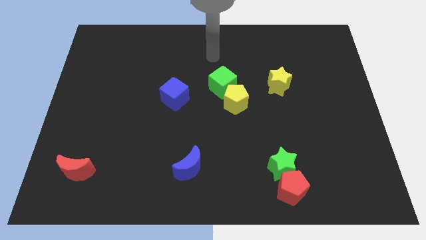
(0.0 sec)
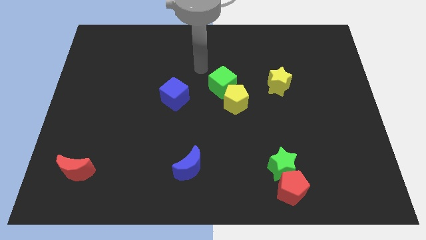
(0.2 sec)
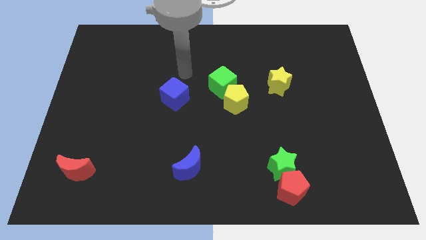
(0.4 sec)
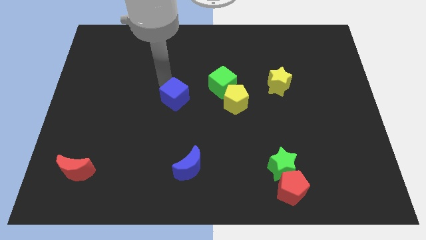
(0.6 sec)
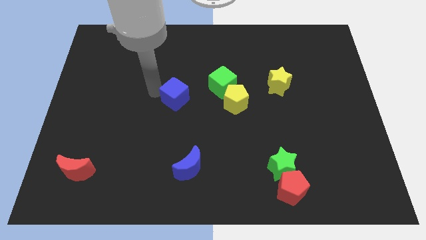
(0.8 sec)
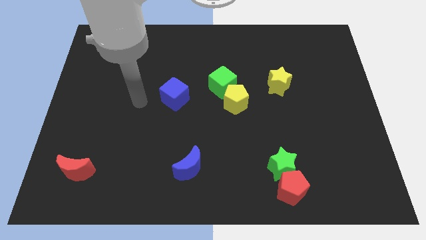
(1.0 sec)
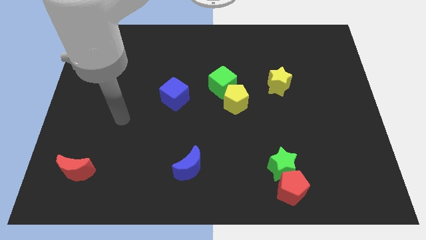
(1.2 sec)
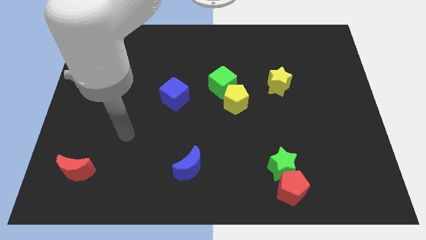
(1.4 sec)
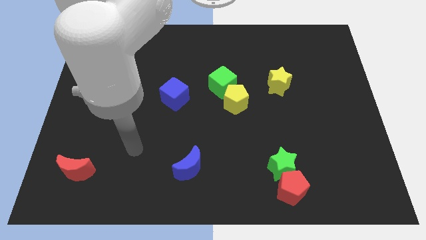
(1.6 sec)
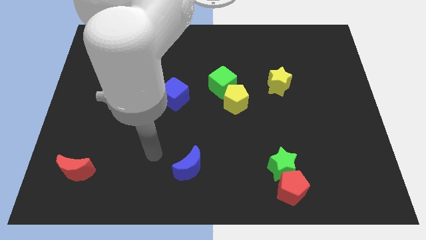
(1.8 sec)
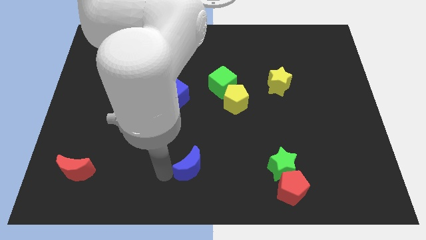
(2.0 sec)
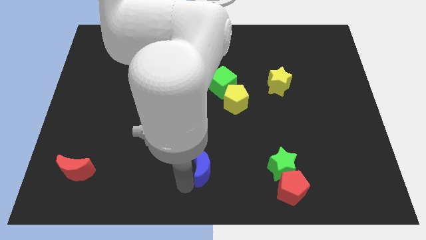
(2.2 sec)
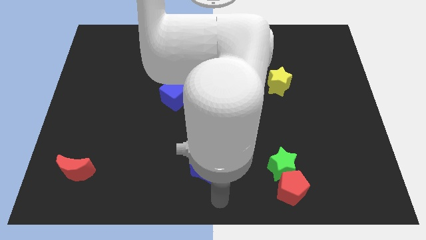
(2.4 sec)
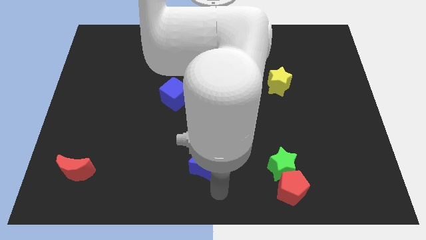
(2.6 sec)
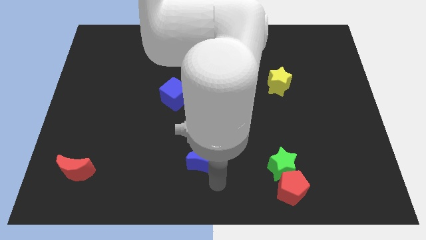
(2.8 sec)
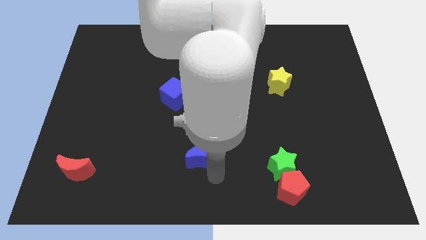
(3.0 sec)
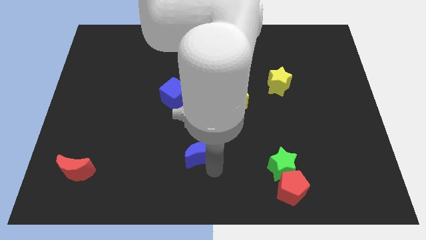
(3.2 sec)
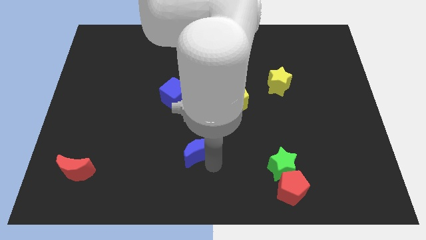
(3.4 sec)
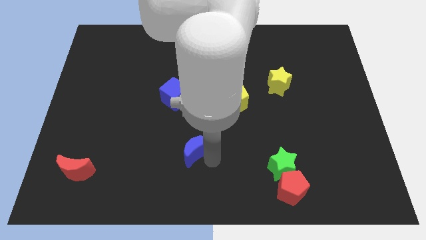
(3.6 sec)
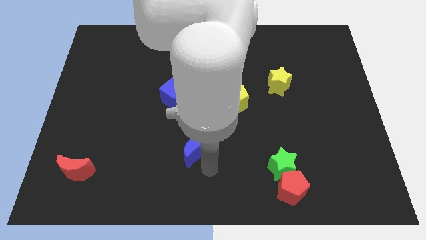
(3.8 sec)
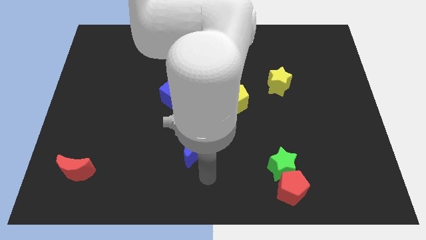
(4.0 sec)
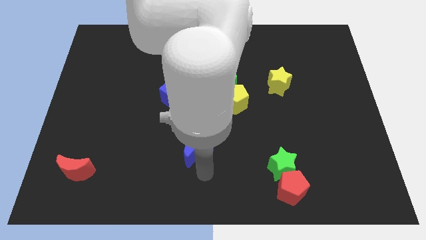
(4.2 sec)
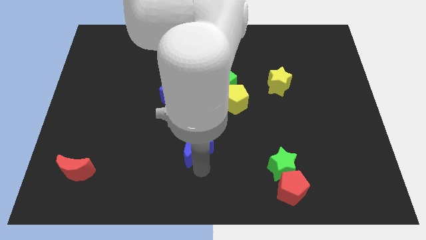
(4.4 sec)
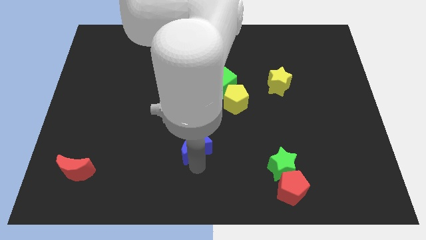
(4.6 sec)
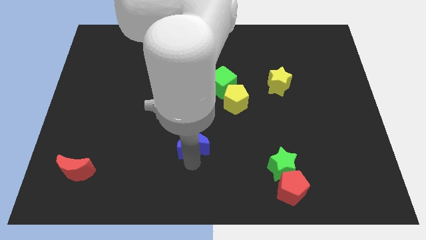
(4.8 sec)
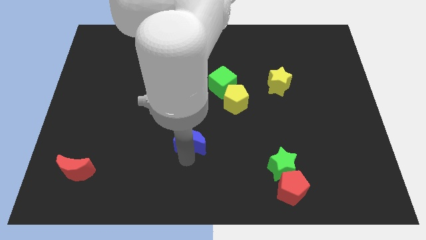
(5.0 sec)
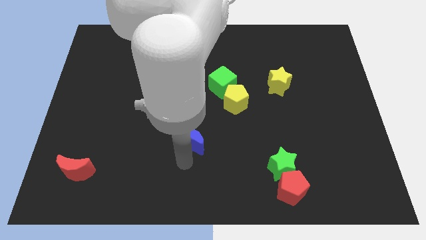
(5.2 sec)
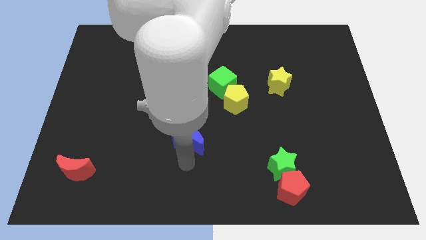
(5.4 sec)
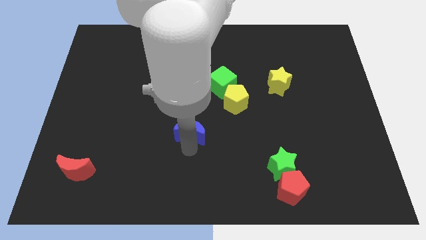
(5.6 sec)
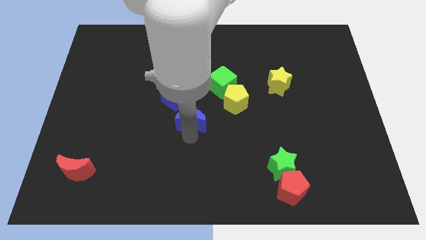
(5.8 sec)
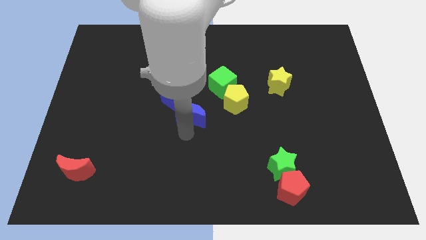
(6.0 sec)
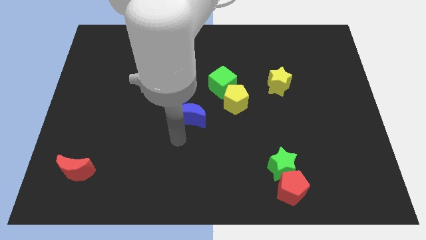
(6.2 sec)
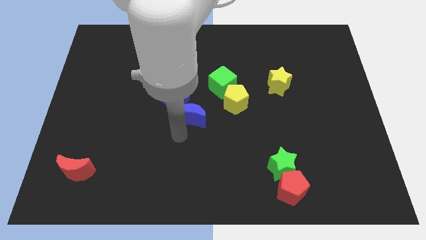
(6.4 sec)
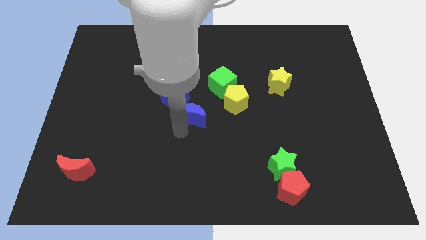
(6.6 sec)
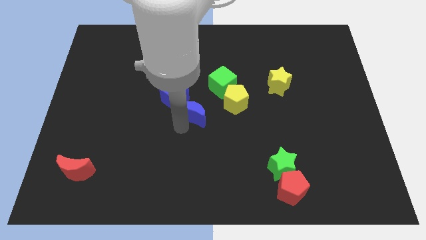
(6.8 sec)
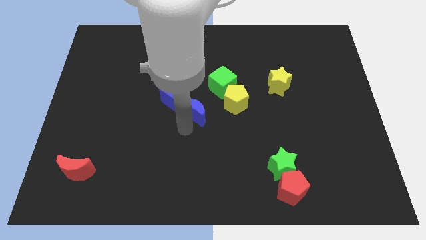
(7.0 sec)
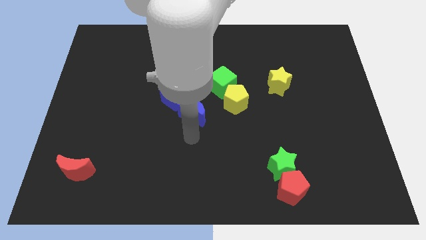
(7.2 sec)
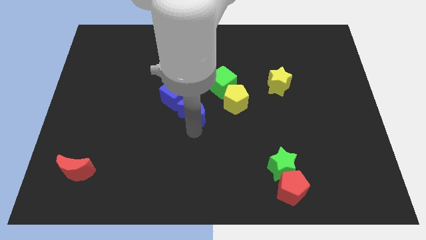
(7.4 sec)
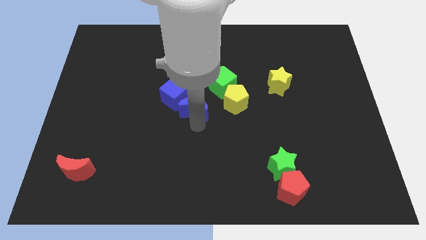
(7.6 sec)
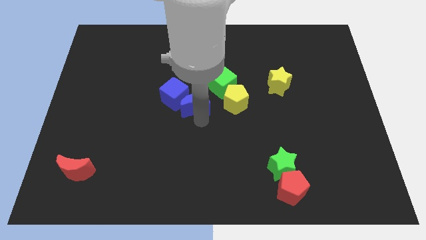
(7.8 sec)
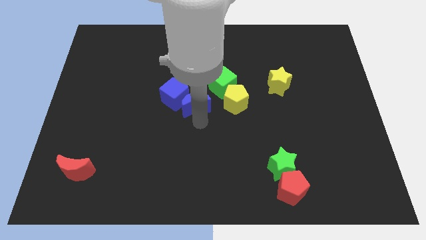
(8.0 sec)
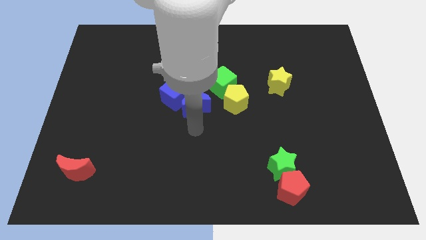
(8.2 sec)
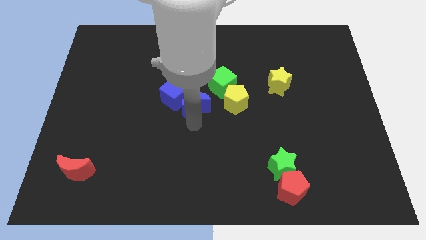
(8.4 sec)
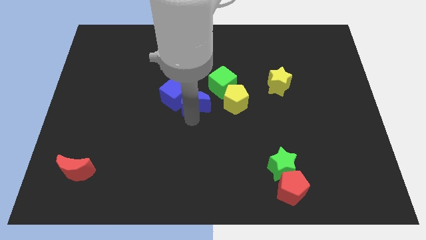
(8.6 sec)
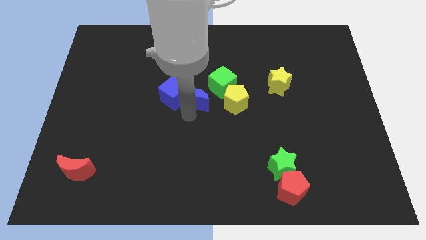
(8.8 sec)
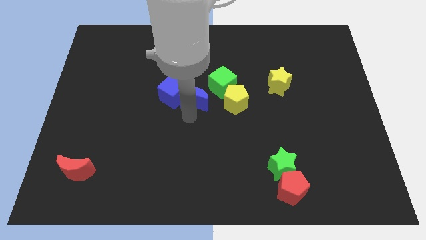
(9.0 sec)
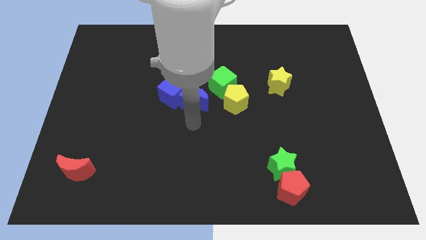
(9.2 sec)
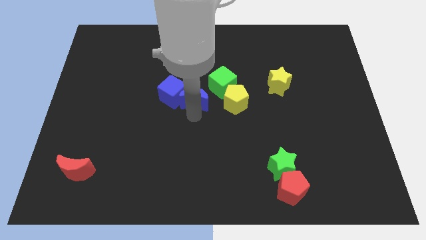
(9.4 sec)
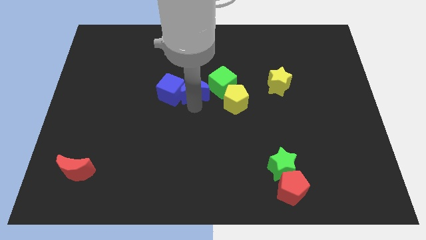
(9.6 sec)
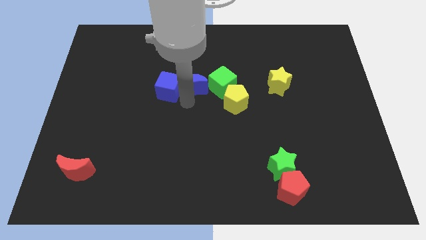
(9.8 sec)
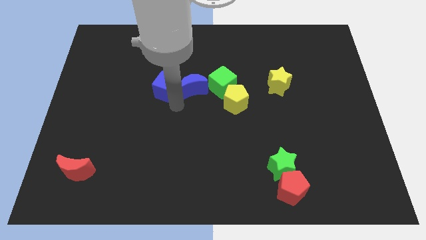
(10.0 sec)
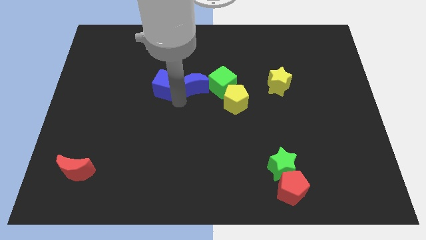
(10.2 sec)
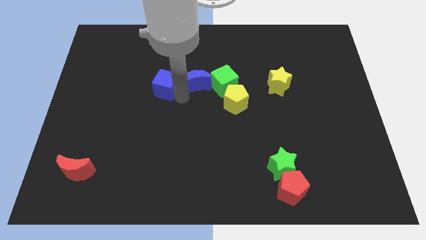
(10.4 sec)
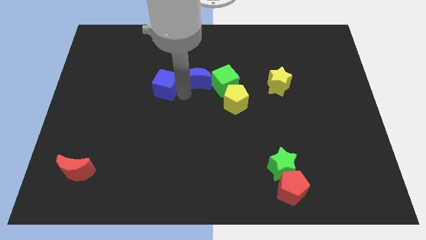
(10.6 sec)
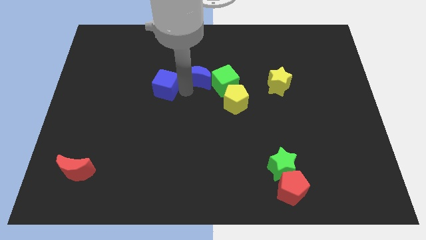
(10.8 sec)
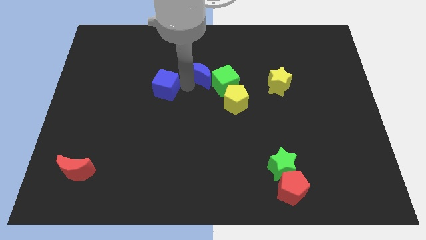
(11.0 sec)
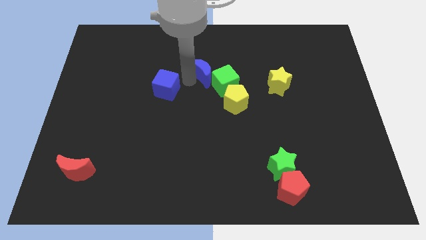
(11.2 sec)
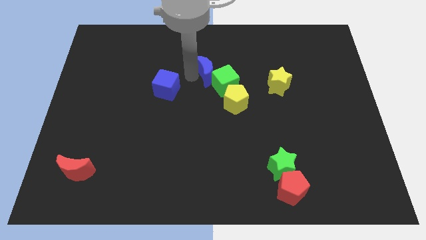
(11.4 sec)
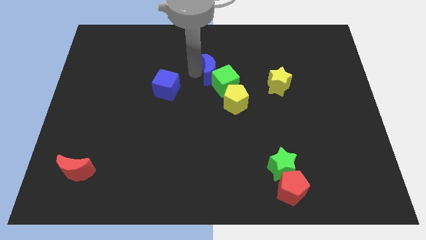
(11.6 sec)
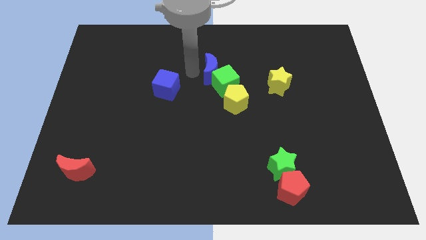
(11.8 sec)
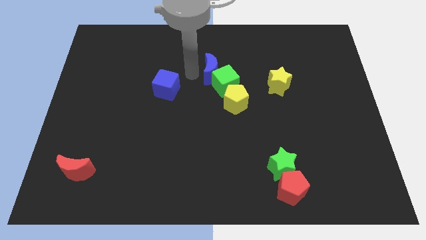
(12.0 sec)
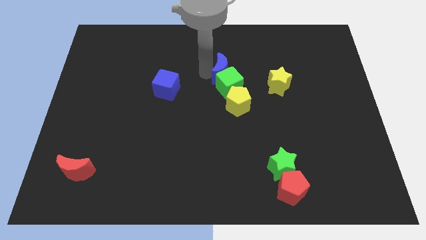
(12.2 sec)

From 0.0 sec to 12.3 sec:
push the blue moon to the top of the yellow pentagon
